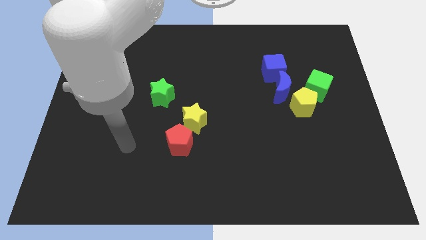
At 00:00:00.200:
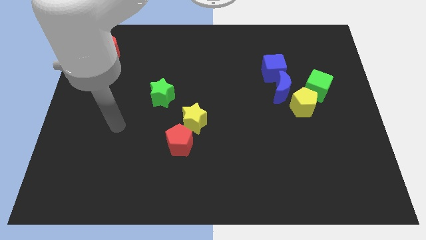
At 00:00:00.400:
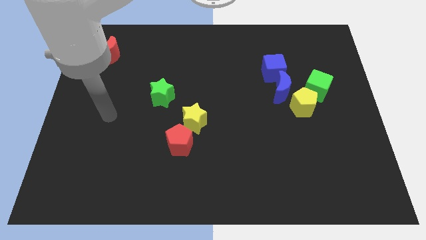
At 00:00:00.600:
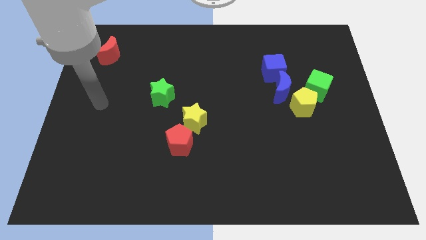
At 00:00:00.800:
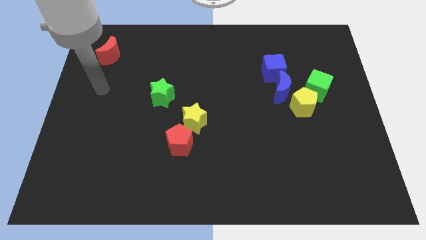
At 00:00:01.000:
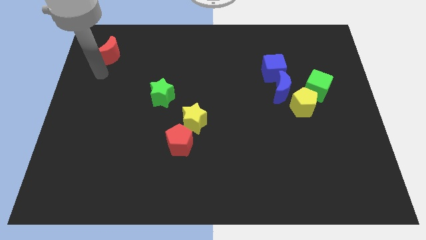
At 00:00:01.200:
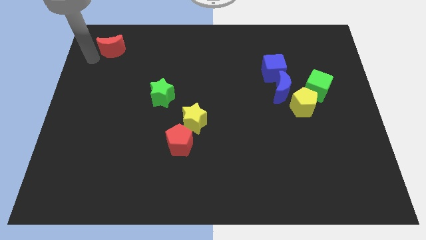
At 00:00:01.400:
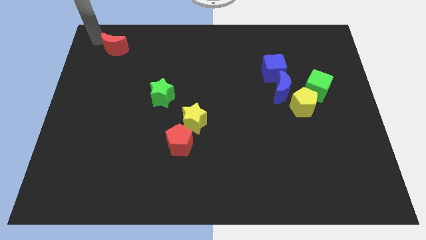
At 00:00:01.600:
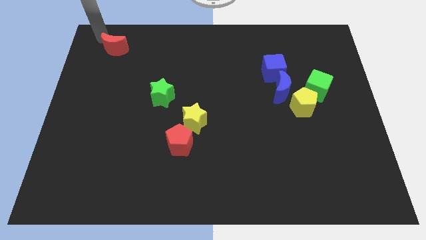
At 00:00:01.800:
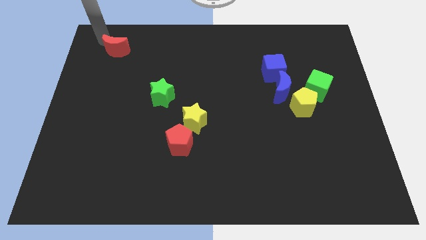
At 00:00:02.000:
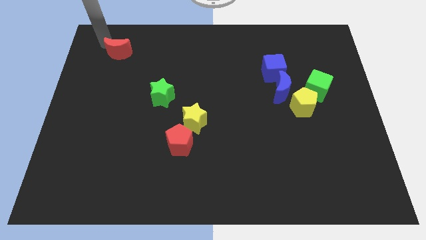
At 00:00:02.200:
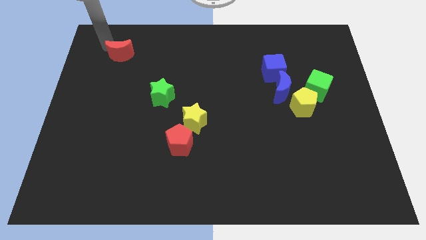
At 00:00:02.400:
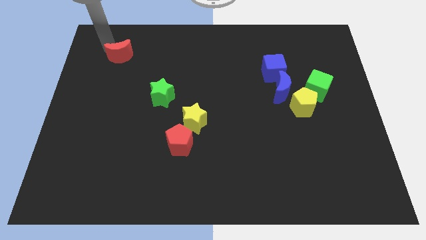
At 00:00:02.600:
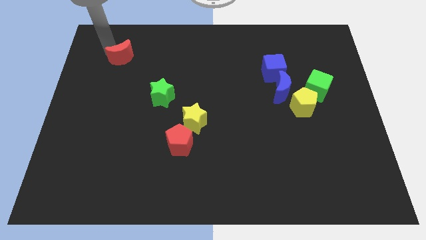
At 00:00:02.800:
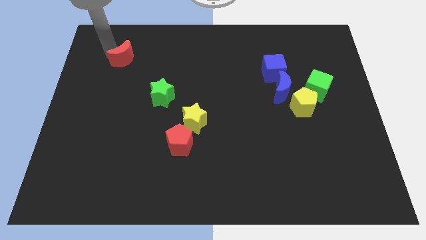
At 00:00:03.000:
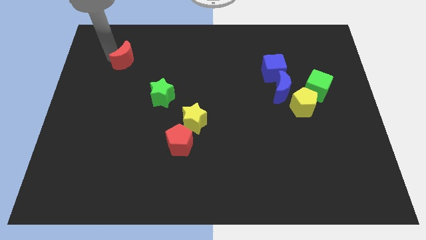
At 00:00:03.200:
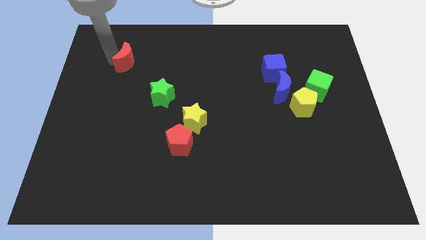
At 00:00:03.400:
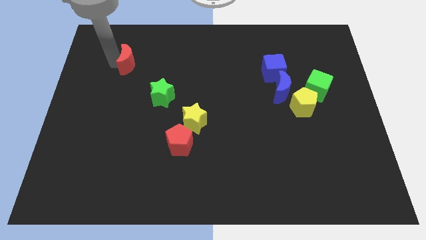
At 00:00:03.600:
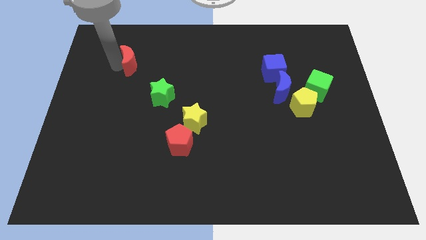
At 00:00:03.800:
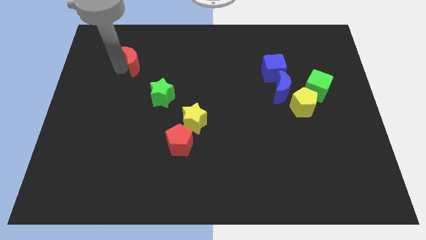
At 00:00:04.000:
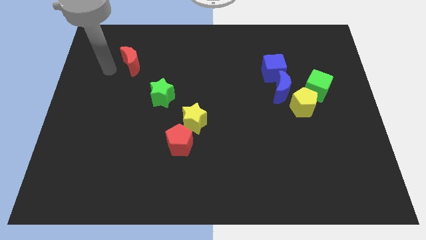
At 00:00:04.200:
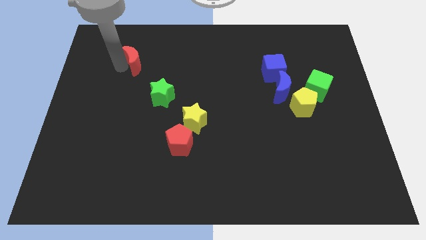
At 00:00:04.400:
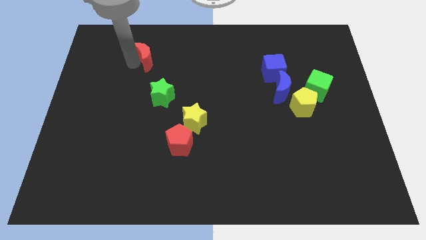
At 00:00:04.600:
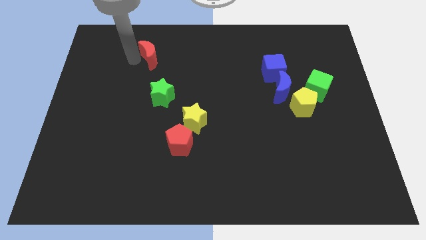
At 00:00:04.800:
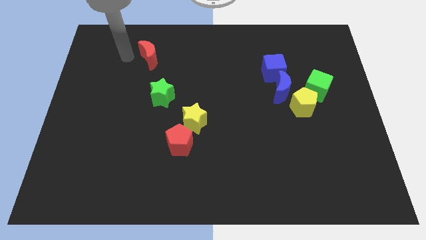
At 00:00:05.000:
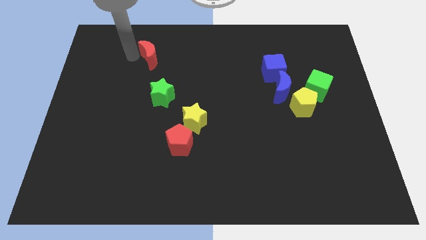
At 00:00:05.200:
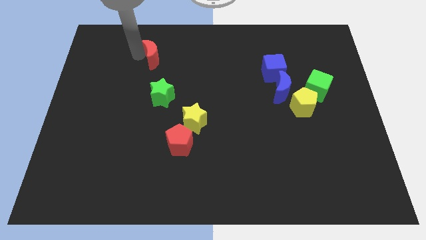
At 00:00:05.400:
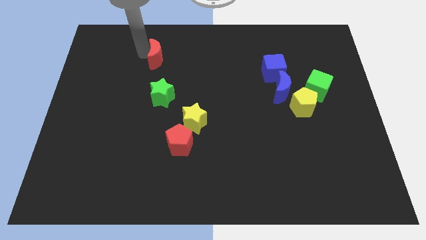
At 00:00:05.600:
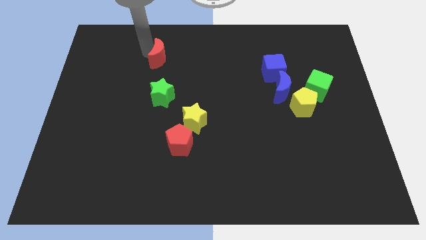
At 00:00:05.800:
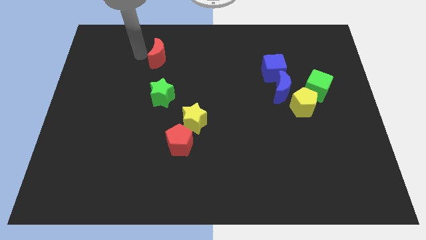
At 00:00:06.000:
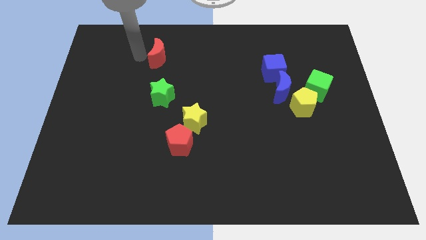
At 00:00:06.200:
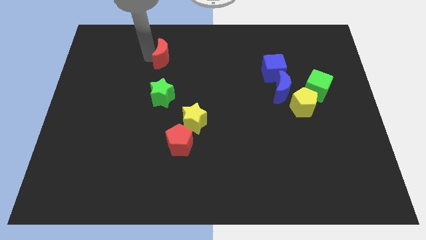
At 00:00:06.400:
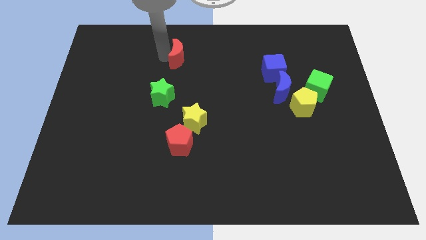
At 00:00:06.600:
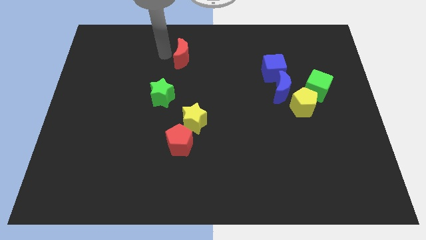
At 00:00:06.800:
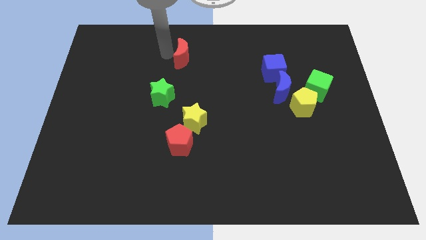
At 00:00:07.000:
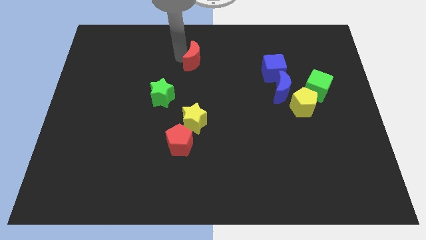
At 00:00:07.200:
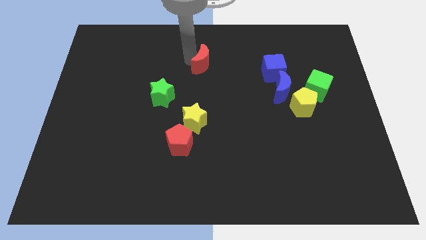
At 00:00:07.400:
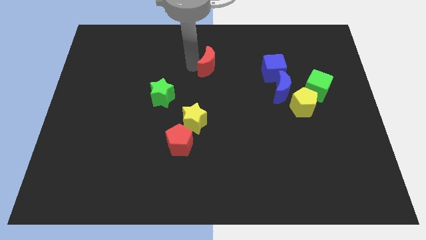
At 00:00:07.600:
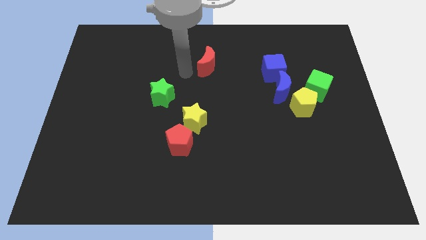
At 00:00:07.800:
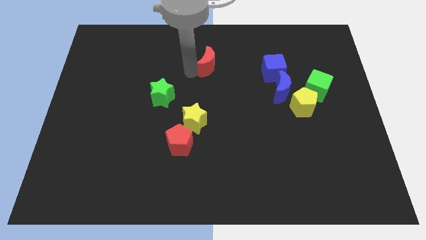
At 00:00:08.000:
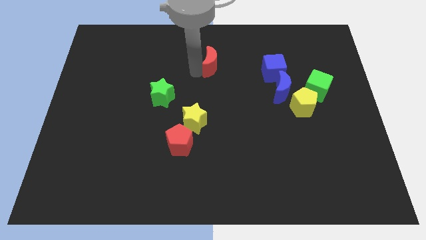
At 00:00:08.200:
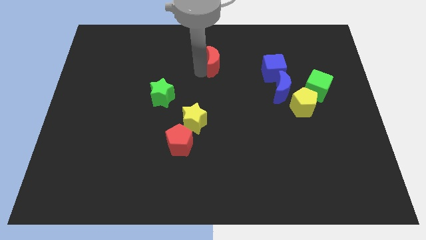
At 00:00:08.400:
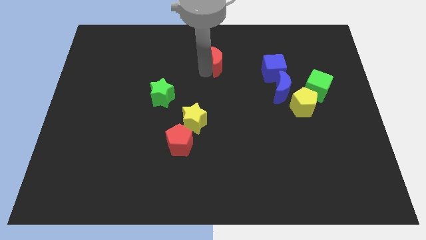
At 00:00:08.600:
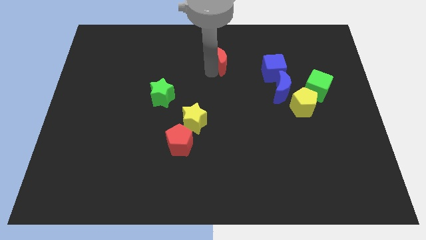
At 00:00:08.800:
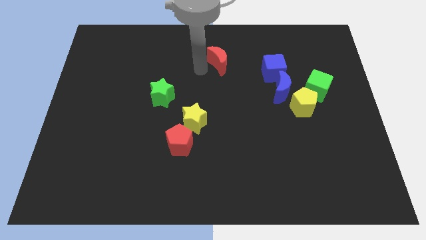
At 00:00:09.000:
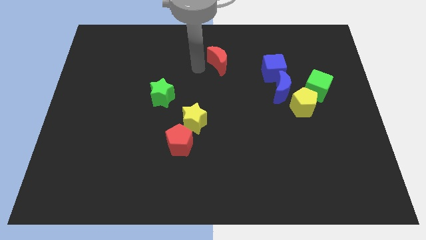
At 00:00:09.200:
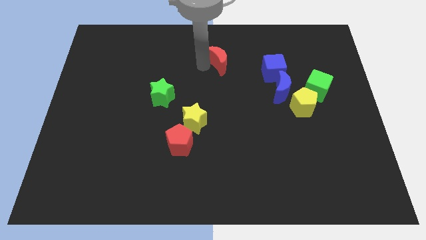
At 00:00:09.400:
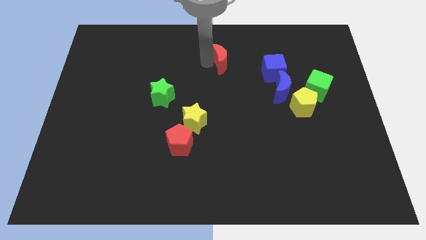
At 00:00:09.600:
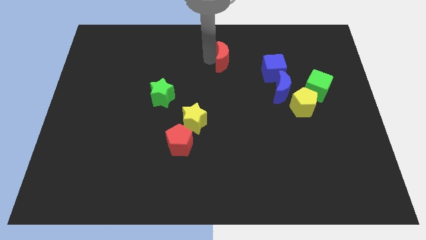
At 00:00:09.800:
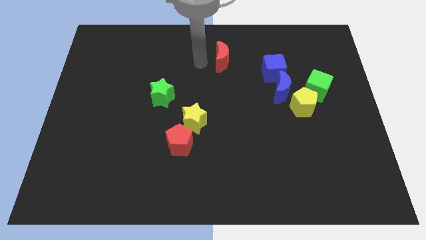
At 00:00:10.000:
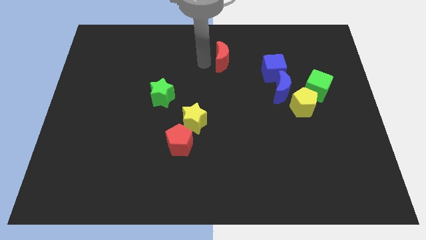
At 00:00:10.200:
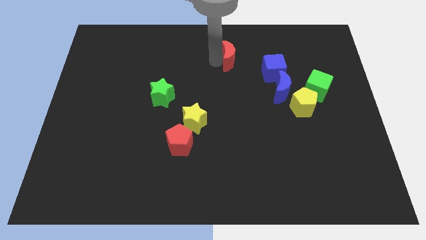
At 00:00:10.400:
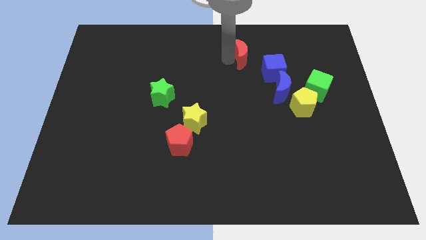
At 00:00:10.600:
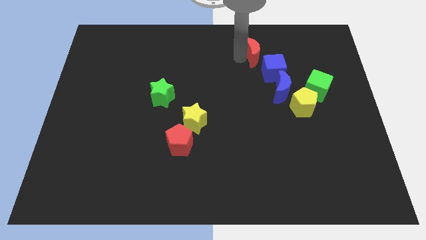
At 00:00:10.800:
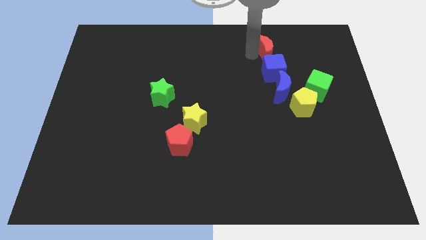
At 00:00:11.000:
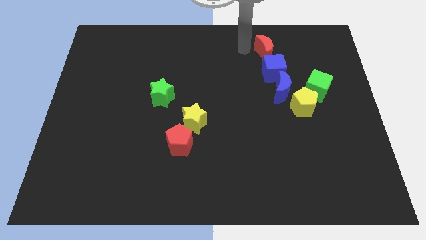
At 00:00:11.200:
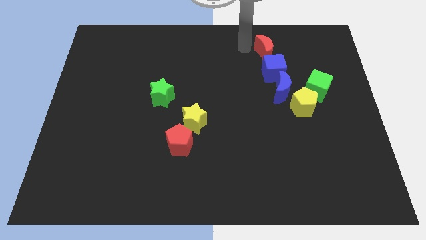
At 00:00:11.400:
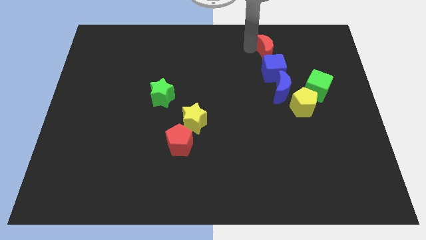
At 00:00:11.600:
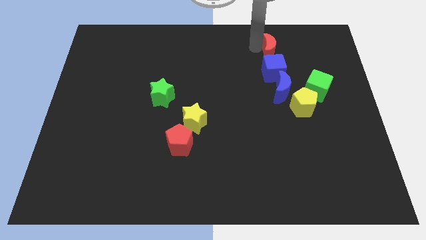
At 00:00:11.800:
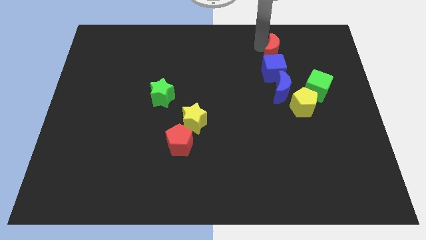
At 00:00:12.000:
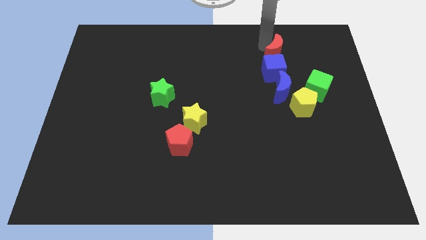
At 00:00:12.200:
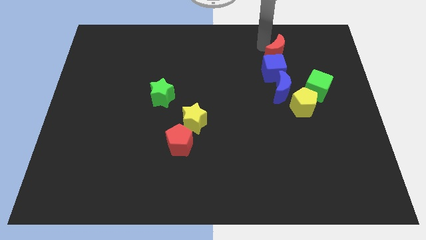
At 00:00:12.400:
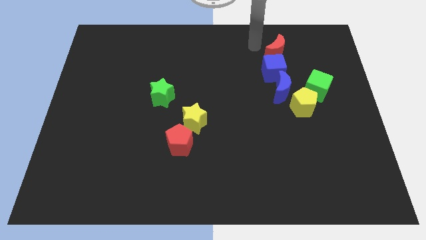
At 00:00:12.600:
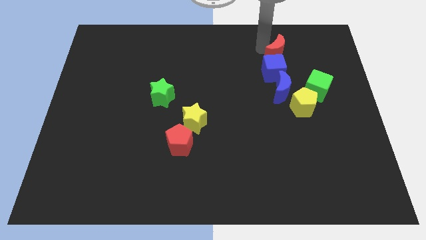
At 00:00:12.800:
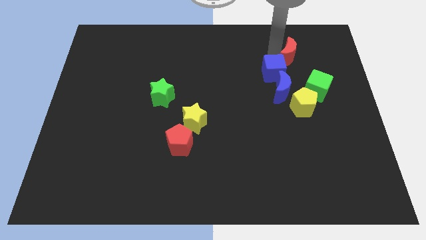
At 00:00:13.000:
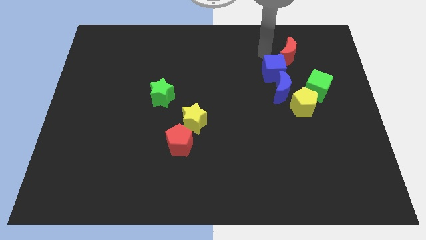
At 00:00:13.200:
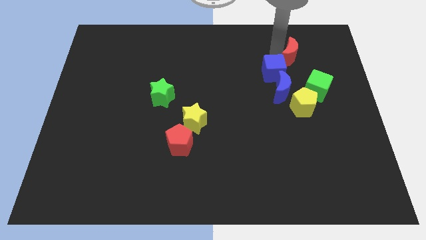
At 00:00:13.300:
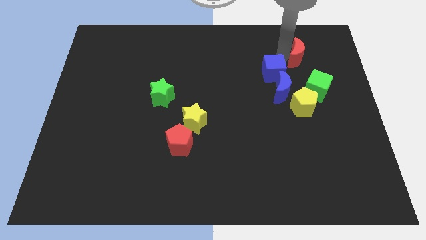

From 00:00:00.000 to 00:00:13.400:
move the red moon to the top of the green cube

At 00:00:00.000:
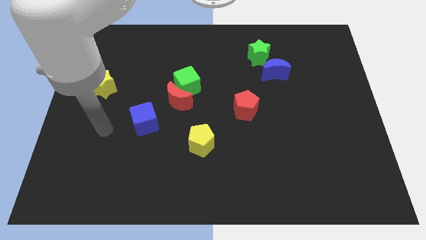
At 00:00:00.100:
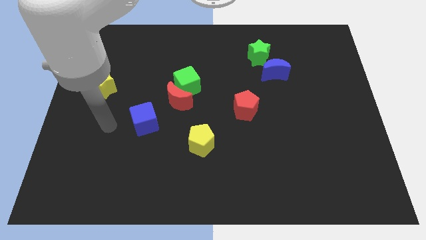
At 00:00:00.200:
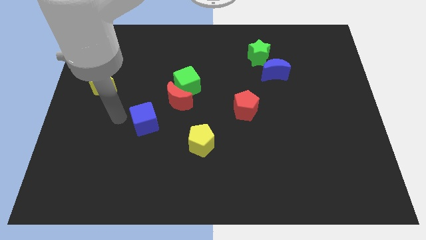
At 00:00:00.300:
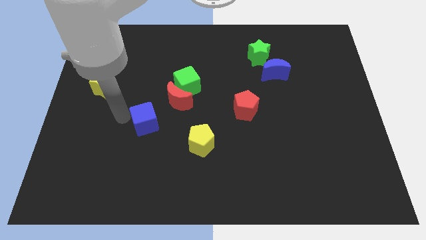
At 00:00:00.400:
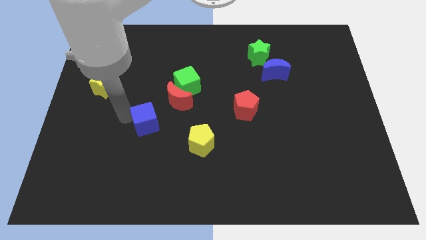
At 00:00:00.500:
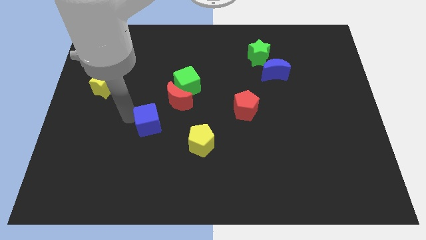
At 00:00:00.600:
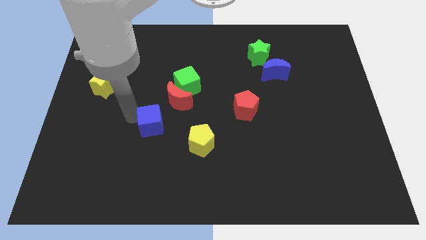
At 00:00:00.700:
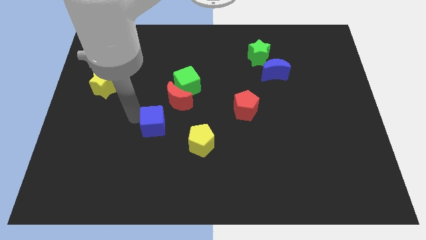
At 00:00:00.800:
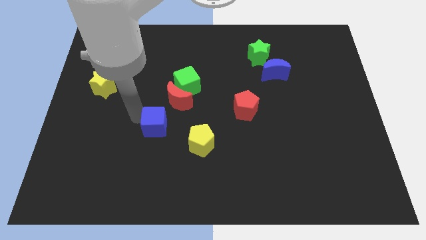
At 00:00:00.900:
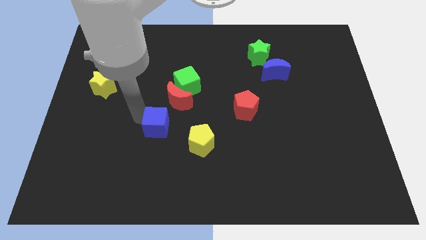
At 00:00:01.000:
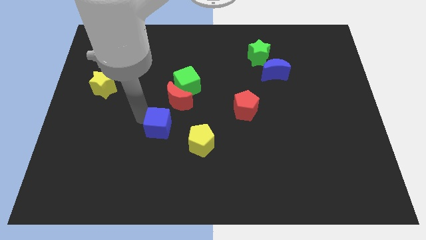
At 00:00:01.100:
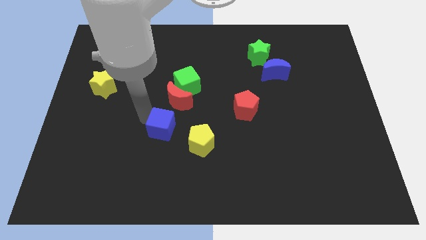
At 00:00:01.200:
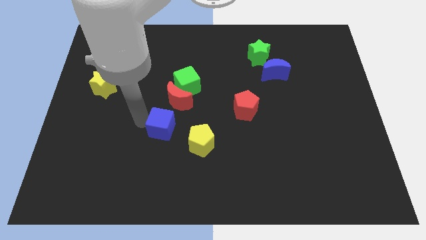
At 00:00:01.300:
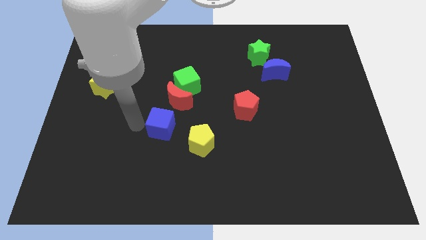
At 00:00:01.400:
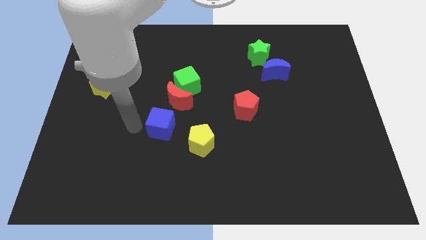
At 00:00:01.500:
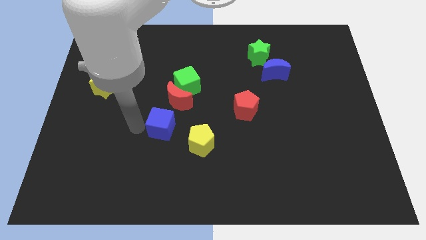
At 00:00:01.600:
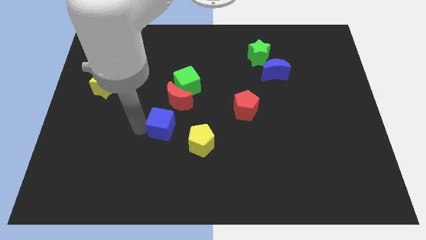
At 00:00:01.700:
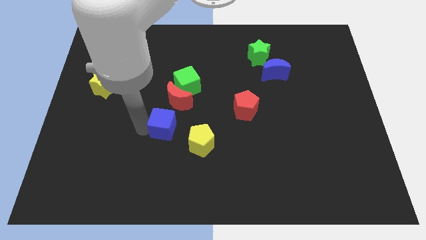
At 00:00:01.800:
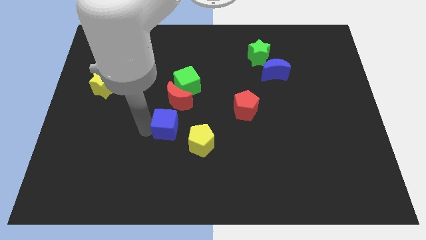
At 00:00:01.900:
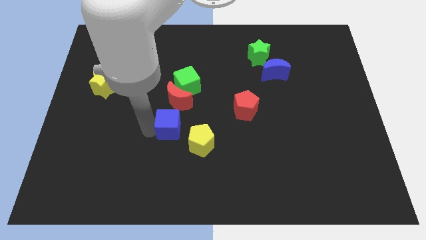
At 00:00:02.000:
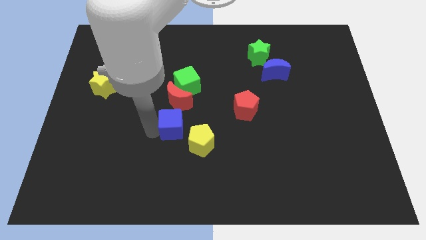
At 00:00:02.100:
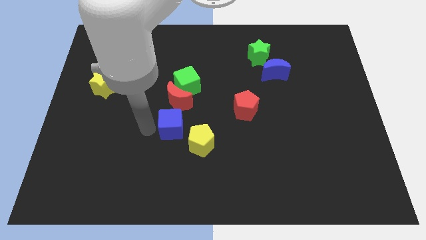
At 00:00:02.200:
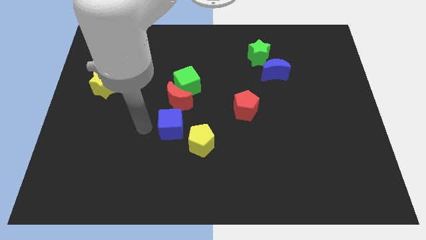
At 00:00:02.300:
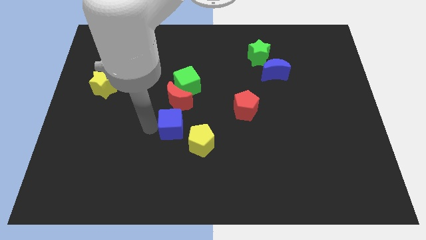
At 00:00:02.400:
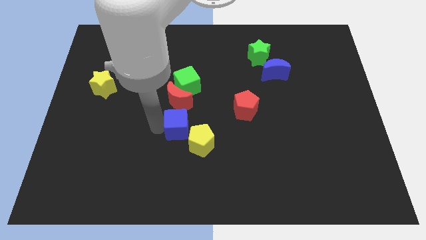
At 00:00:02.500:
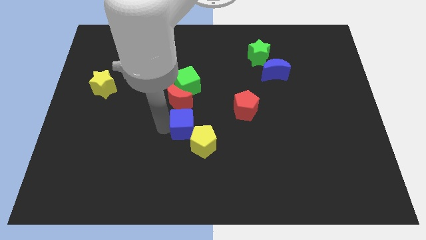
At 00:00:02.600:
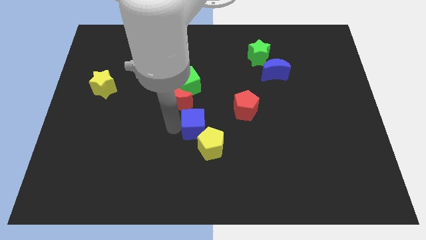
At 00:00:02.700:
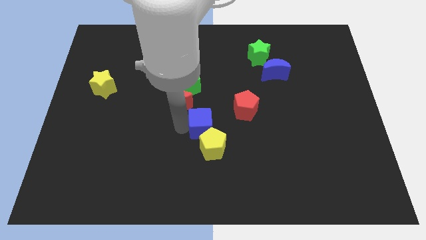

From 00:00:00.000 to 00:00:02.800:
push the blue cube to the bottom left side of the red pentagon
